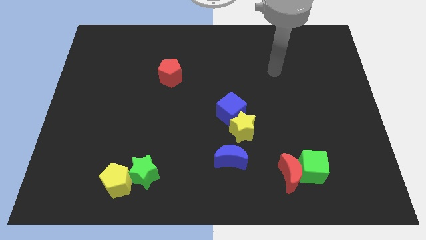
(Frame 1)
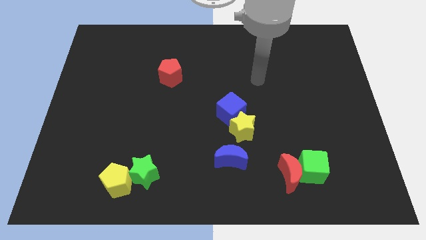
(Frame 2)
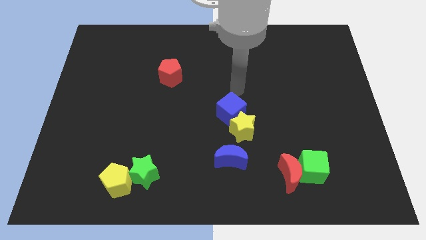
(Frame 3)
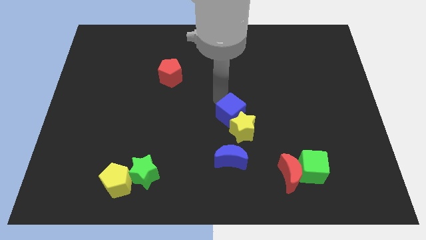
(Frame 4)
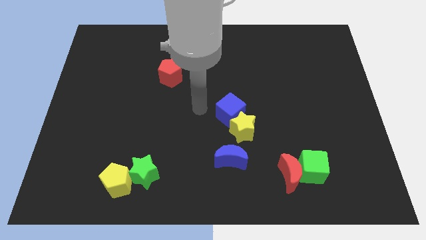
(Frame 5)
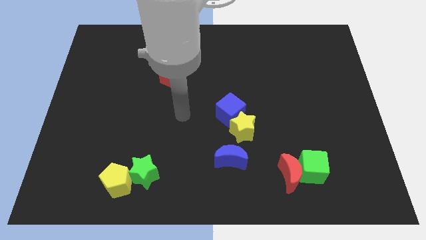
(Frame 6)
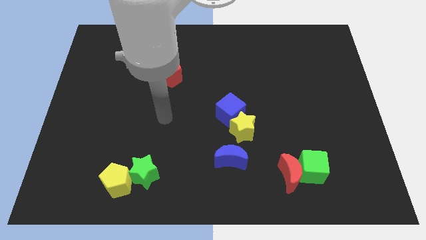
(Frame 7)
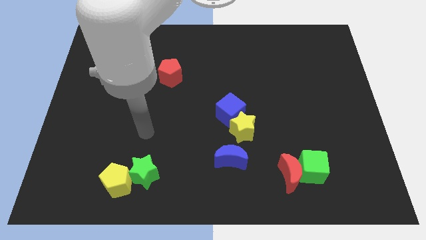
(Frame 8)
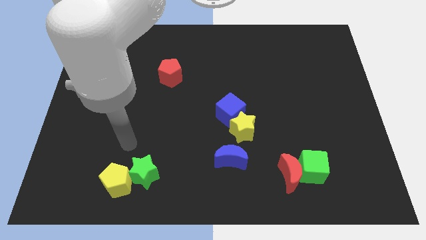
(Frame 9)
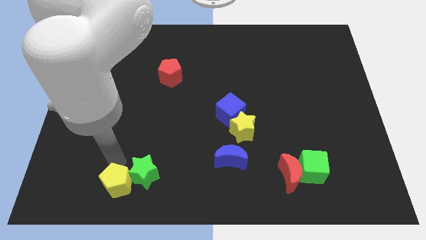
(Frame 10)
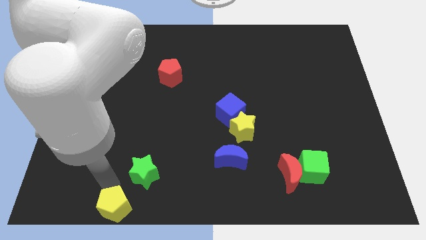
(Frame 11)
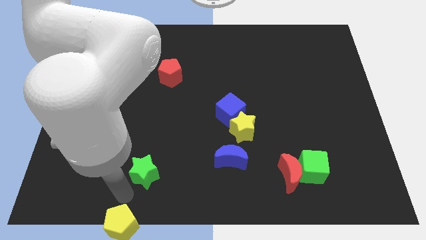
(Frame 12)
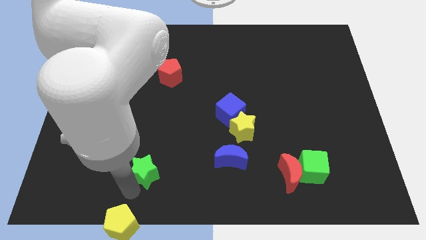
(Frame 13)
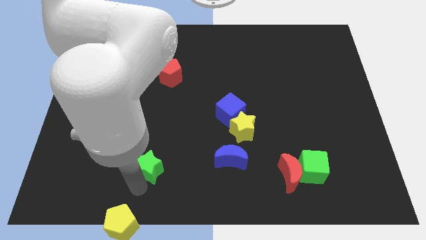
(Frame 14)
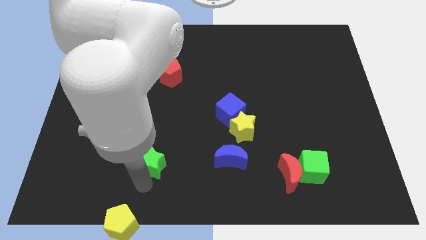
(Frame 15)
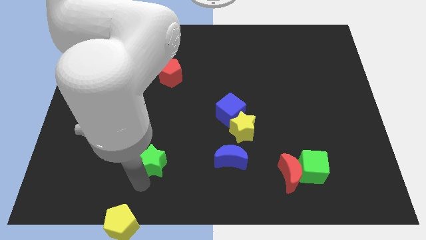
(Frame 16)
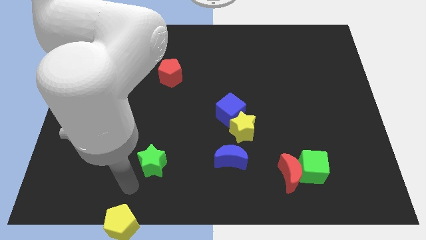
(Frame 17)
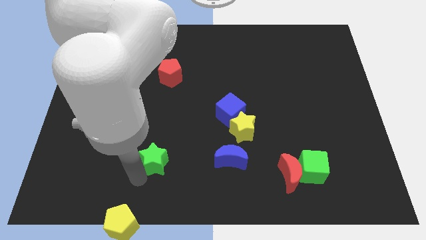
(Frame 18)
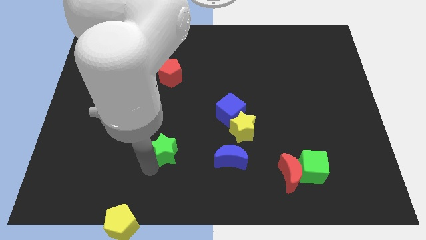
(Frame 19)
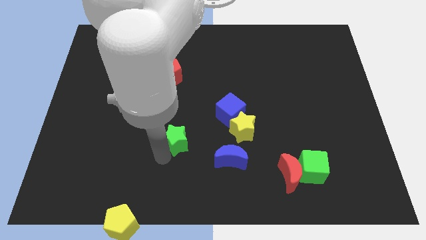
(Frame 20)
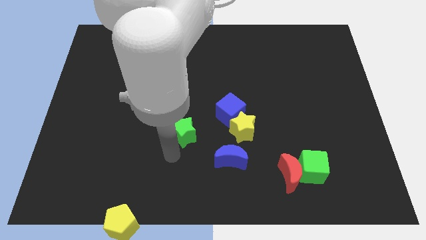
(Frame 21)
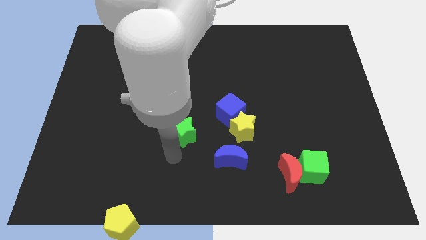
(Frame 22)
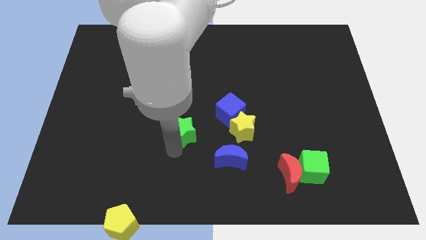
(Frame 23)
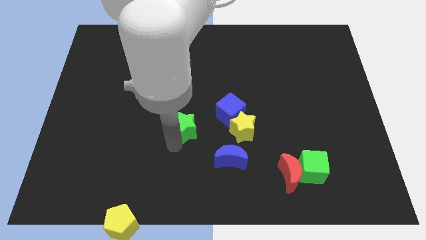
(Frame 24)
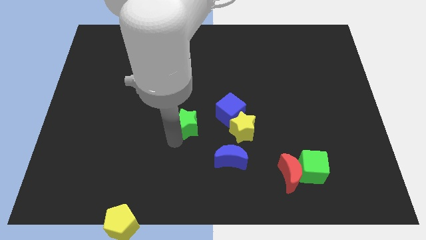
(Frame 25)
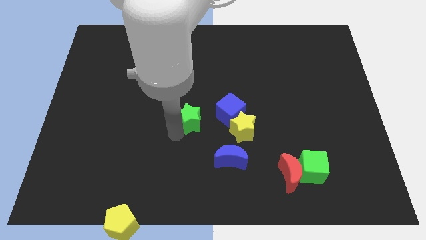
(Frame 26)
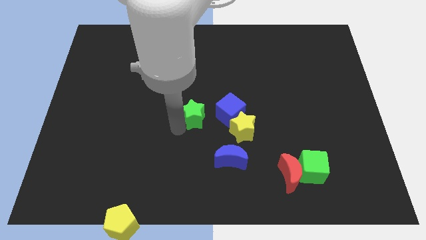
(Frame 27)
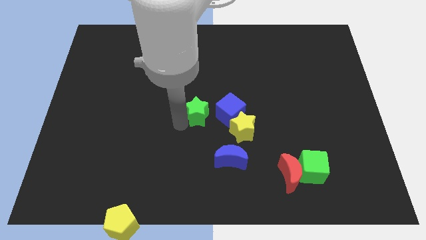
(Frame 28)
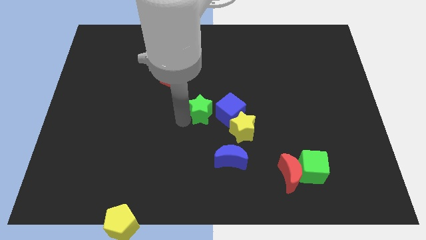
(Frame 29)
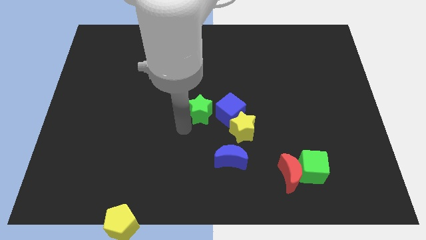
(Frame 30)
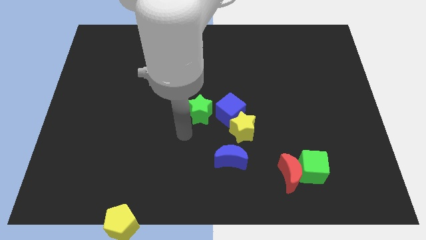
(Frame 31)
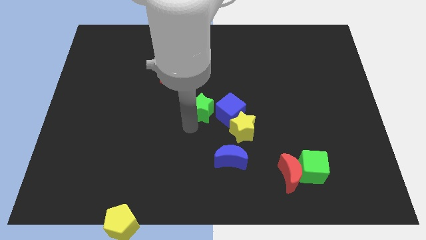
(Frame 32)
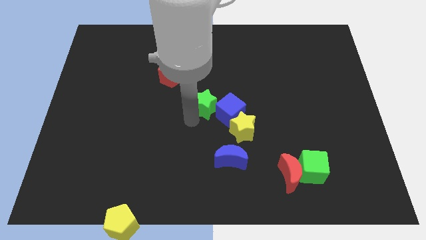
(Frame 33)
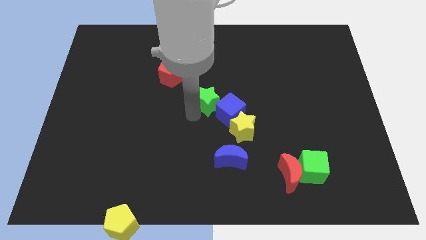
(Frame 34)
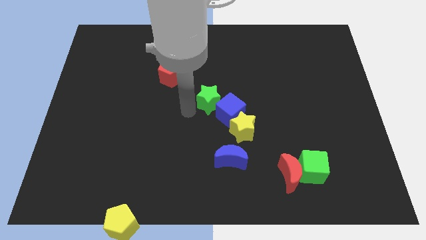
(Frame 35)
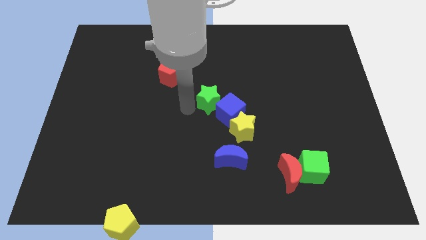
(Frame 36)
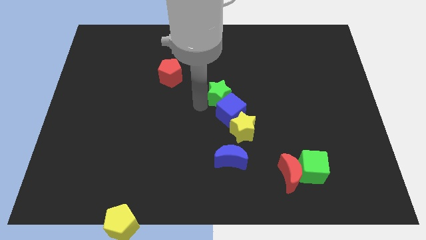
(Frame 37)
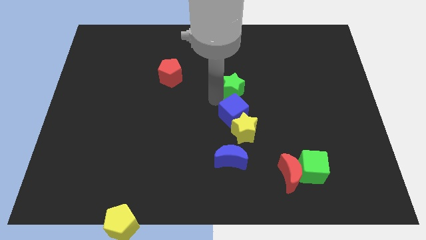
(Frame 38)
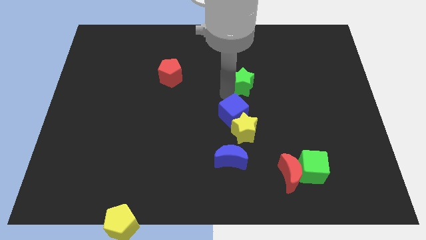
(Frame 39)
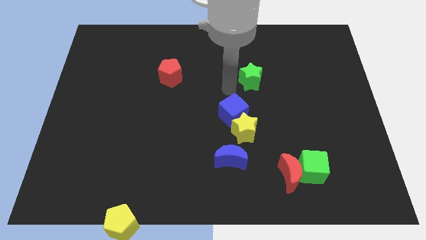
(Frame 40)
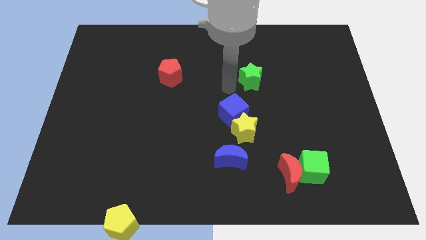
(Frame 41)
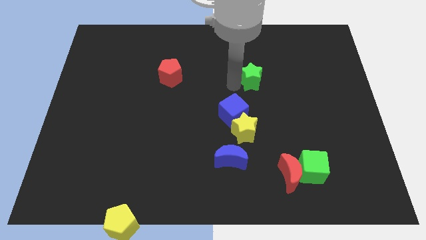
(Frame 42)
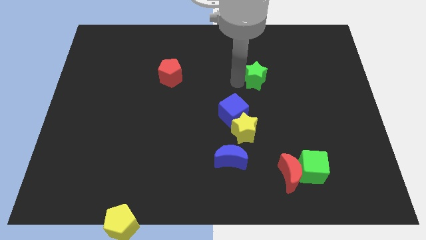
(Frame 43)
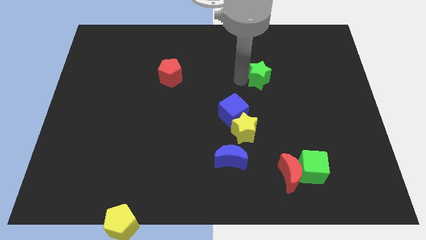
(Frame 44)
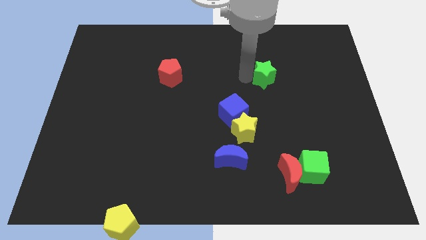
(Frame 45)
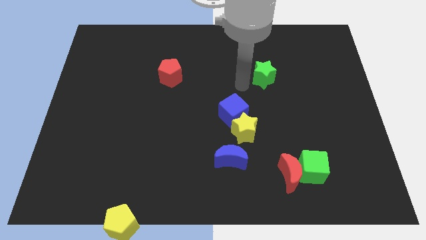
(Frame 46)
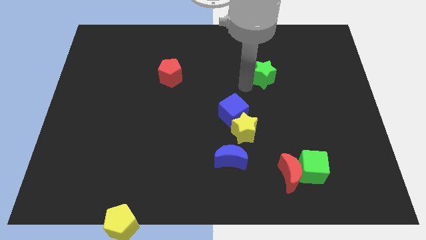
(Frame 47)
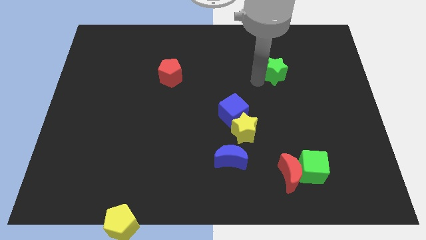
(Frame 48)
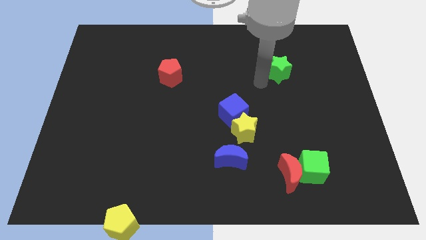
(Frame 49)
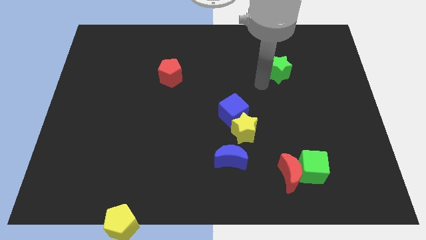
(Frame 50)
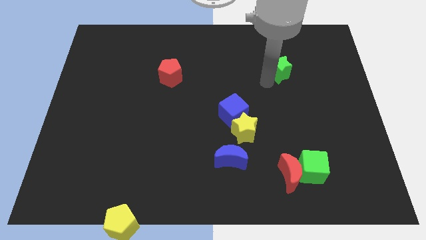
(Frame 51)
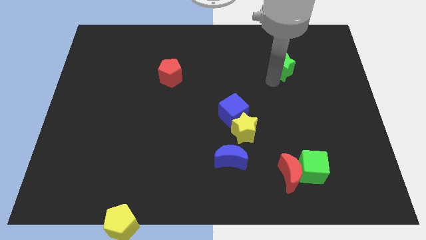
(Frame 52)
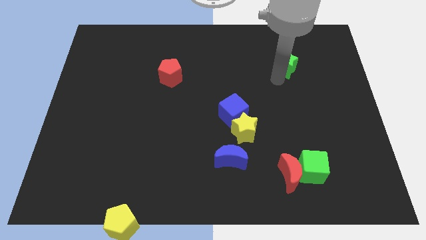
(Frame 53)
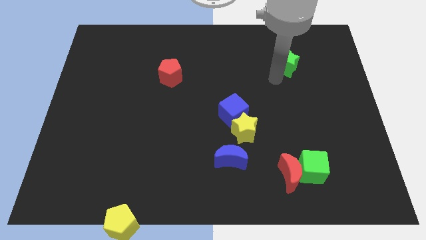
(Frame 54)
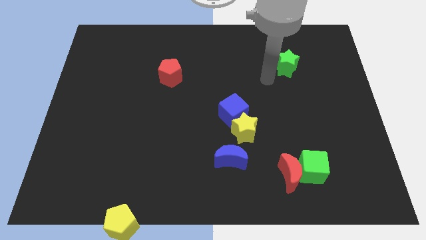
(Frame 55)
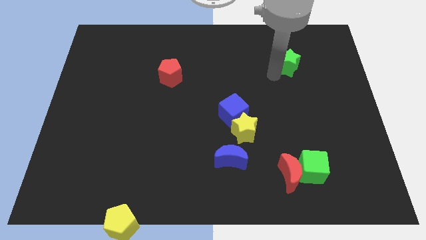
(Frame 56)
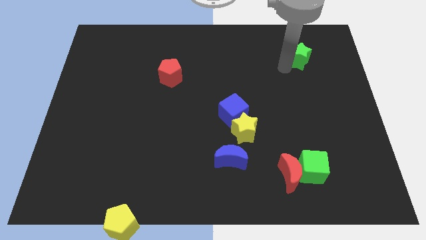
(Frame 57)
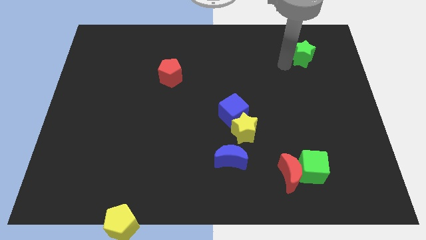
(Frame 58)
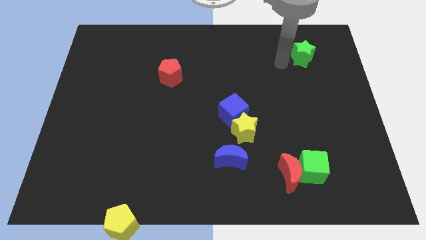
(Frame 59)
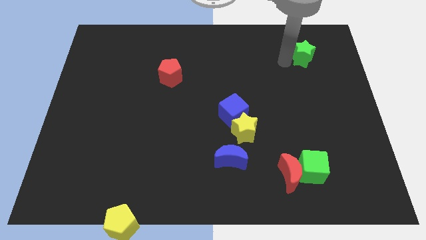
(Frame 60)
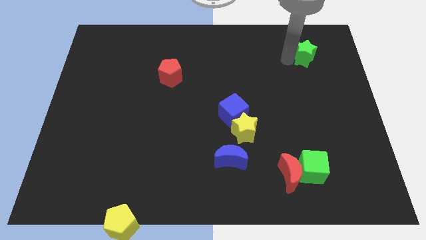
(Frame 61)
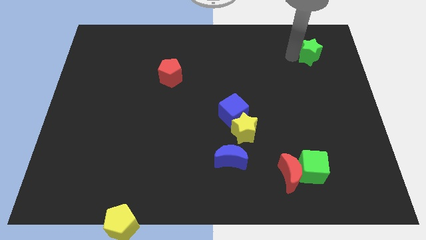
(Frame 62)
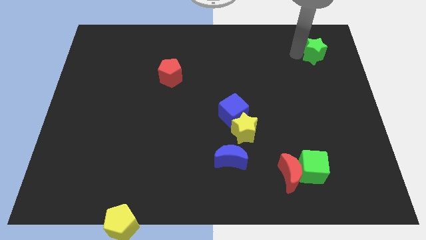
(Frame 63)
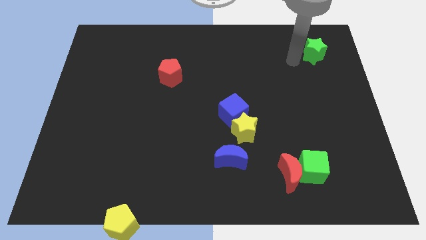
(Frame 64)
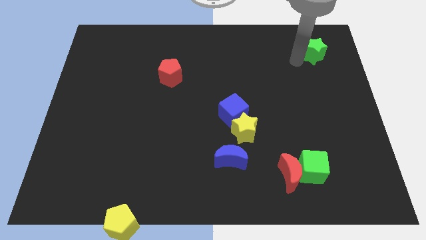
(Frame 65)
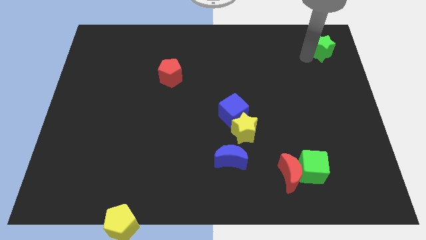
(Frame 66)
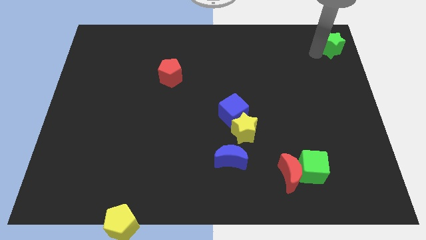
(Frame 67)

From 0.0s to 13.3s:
slide the green star to the top right corner
